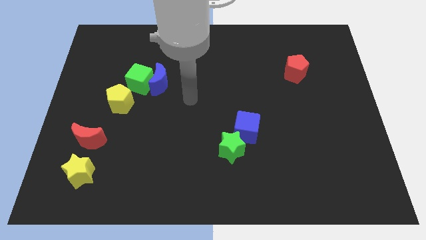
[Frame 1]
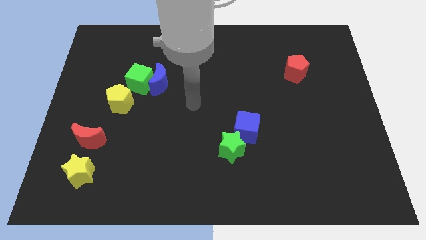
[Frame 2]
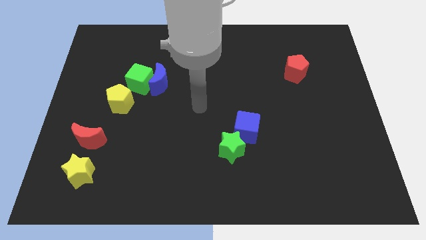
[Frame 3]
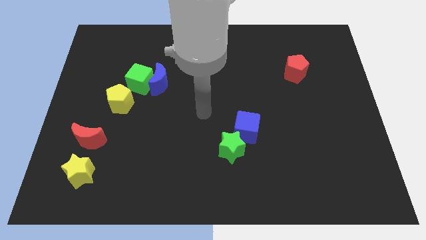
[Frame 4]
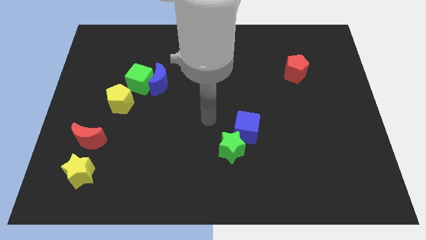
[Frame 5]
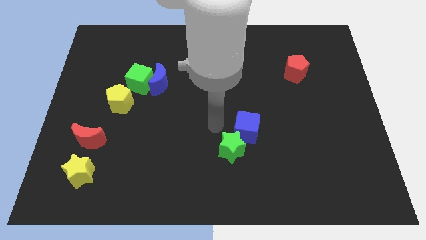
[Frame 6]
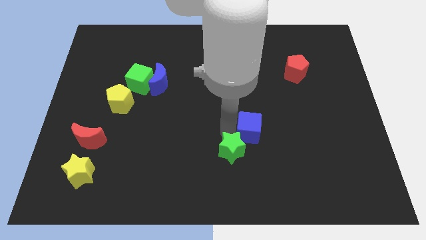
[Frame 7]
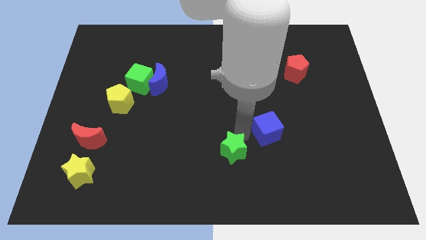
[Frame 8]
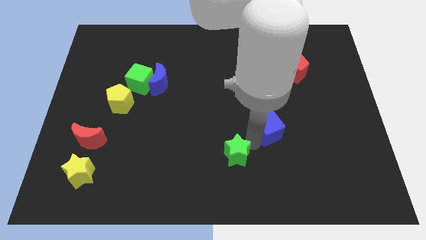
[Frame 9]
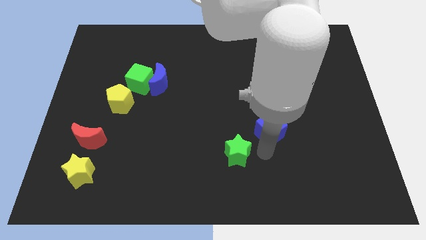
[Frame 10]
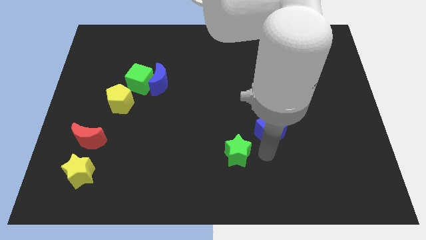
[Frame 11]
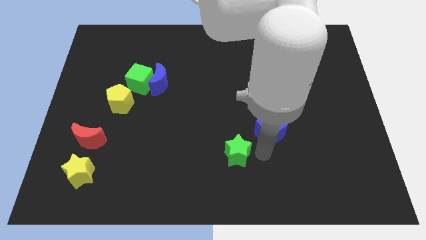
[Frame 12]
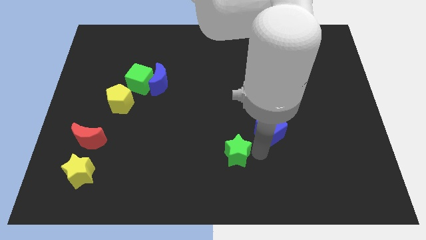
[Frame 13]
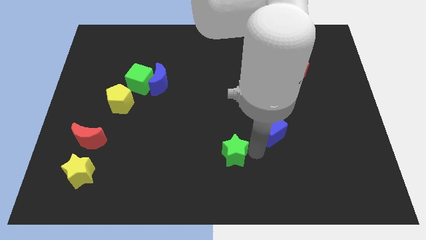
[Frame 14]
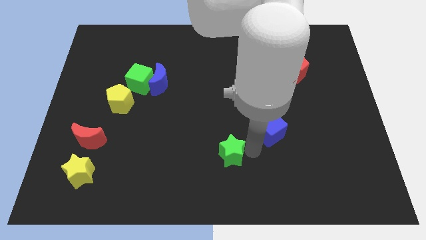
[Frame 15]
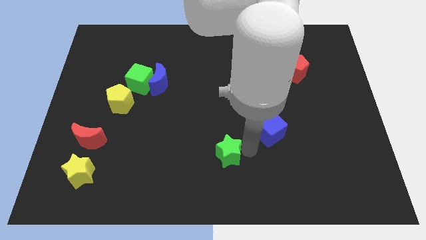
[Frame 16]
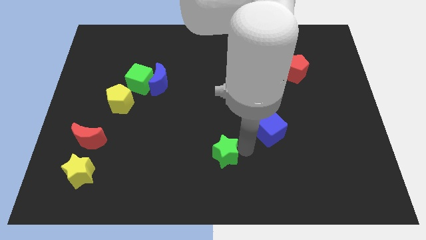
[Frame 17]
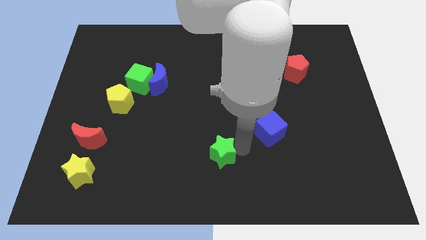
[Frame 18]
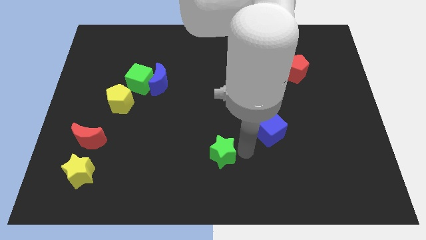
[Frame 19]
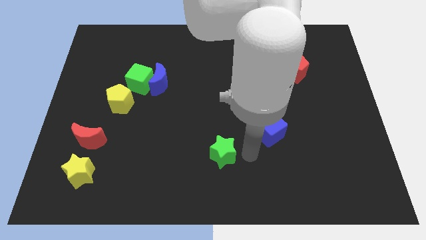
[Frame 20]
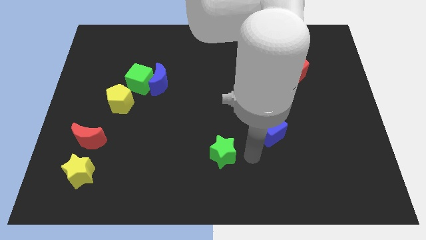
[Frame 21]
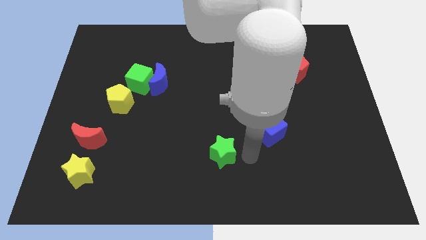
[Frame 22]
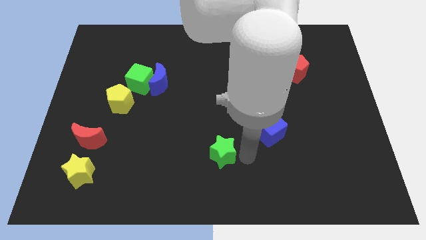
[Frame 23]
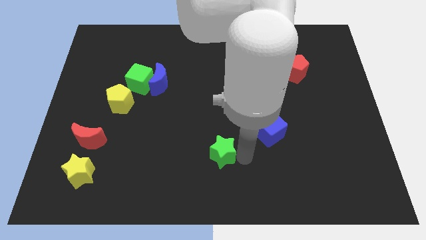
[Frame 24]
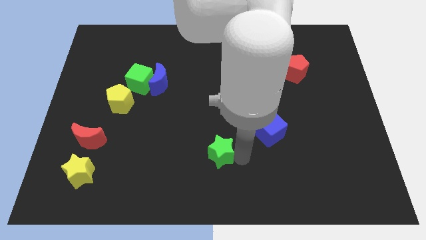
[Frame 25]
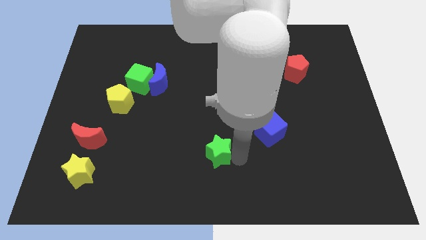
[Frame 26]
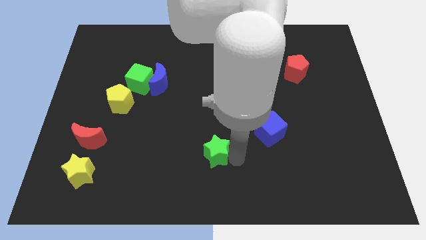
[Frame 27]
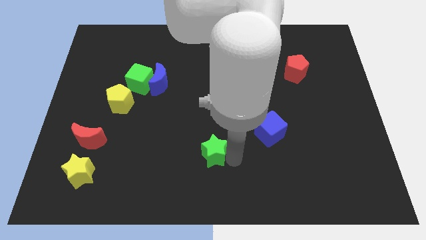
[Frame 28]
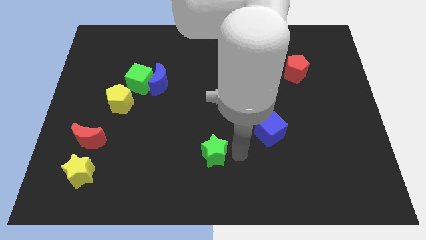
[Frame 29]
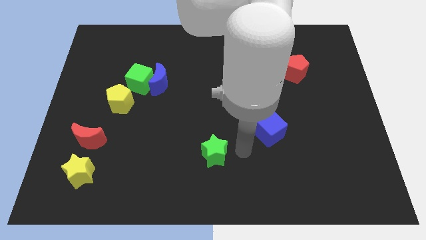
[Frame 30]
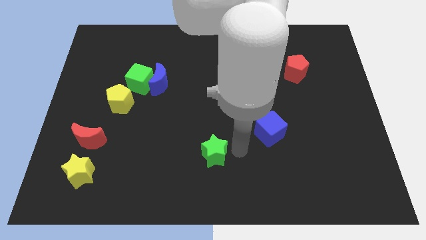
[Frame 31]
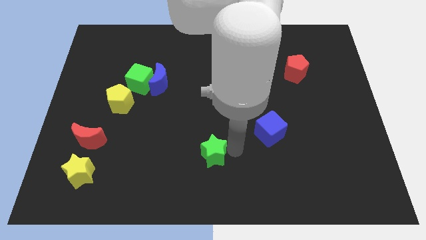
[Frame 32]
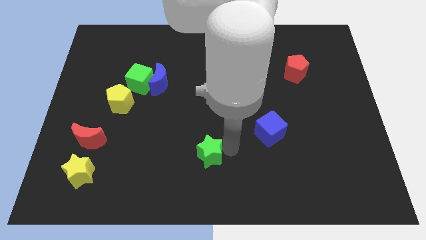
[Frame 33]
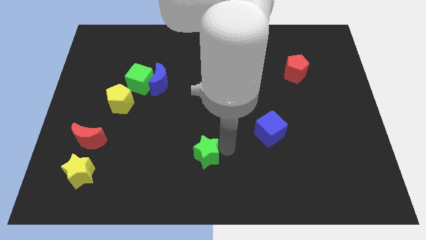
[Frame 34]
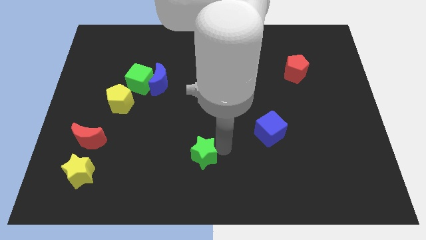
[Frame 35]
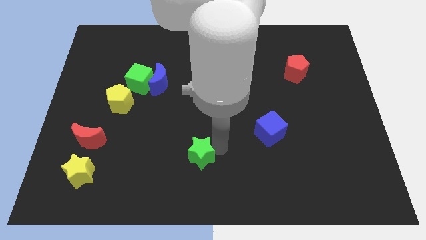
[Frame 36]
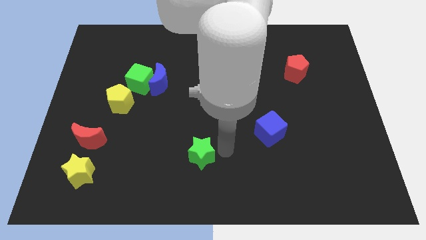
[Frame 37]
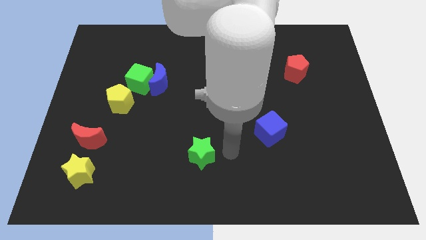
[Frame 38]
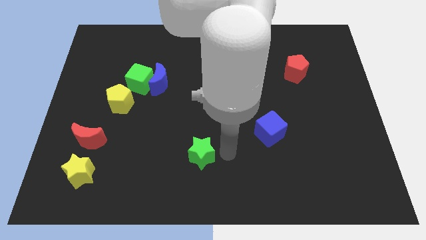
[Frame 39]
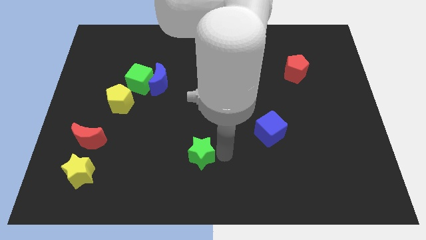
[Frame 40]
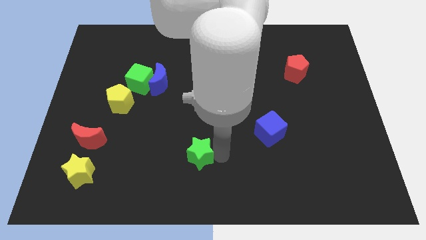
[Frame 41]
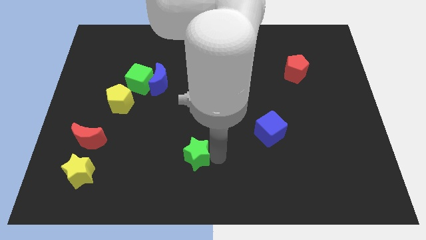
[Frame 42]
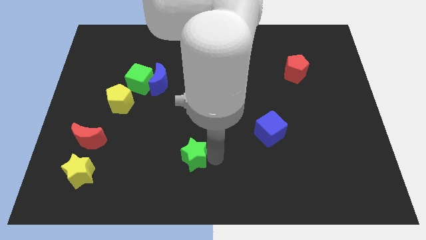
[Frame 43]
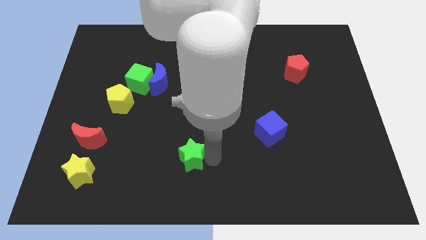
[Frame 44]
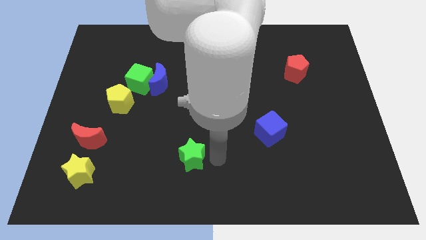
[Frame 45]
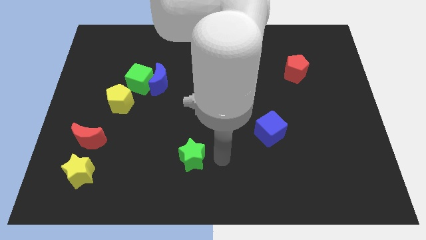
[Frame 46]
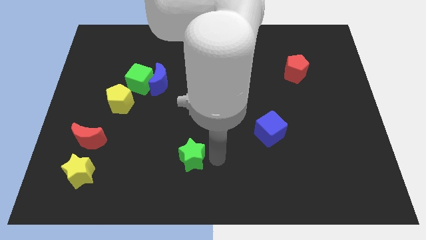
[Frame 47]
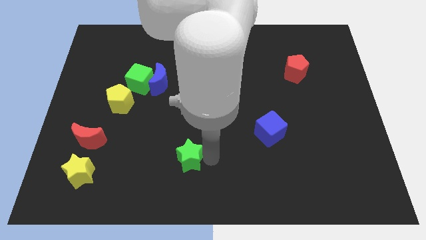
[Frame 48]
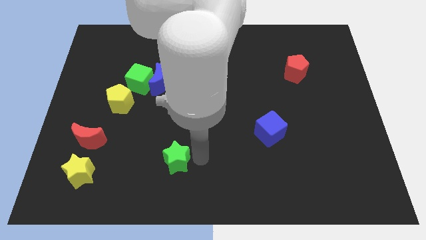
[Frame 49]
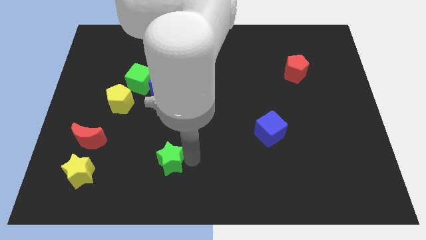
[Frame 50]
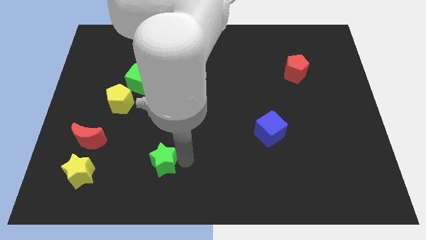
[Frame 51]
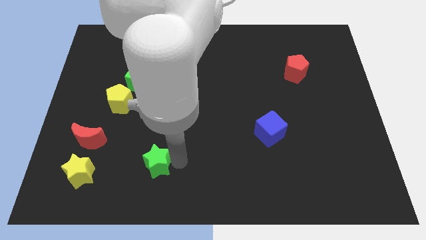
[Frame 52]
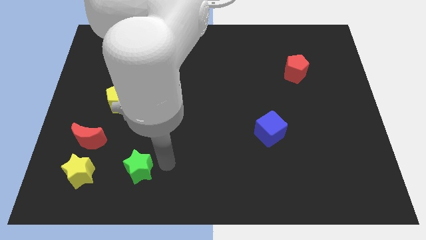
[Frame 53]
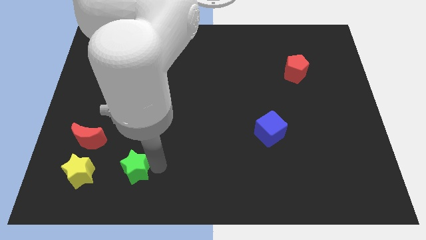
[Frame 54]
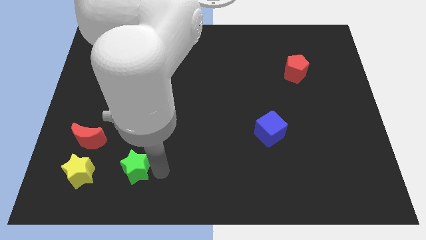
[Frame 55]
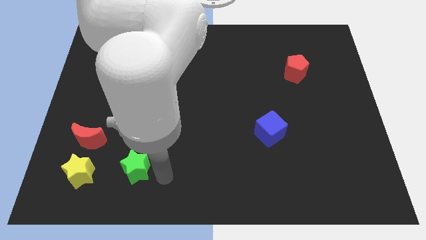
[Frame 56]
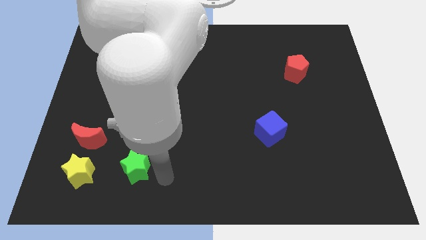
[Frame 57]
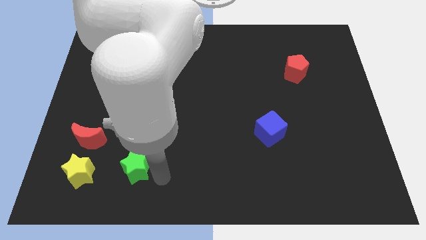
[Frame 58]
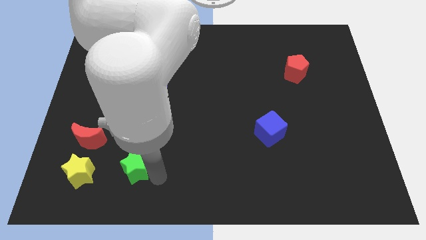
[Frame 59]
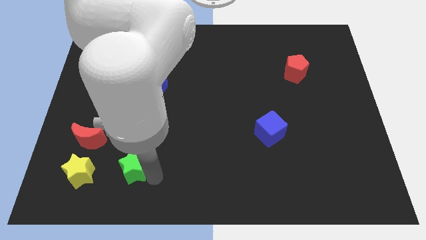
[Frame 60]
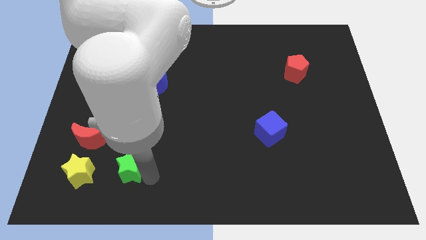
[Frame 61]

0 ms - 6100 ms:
put the green star to the bottom right side of the red moon

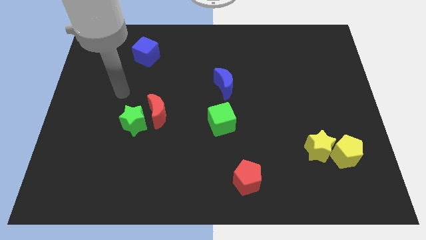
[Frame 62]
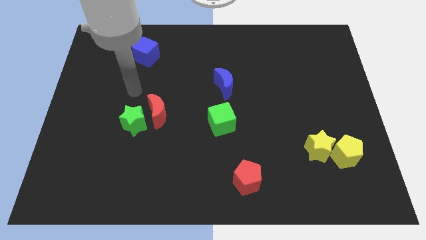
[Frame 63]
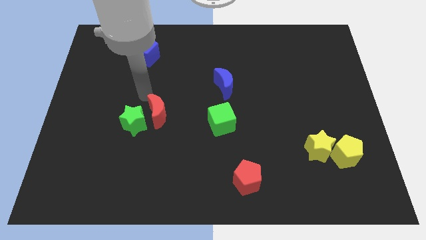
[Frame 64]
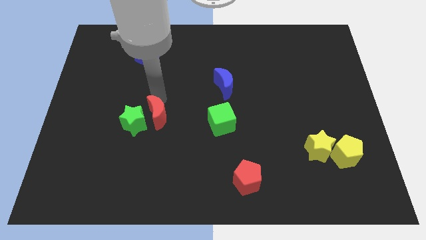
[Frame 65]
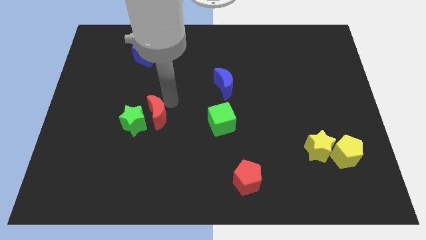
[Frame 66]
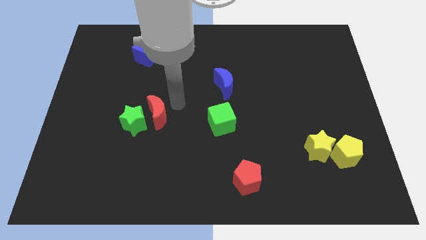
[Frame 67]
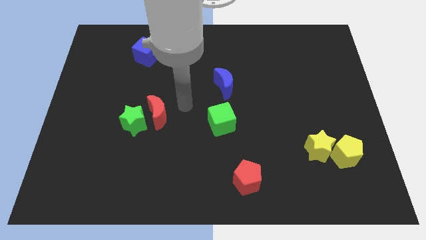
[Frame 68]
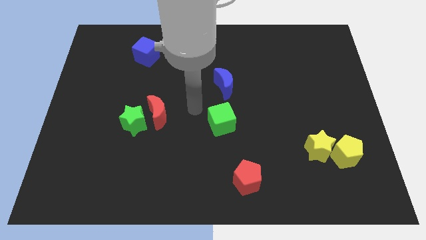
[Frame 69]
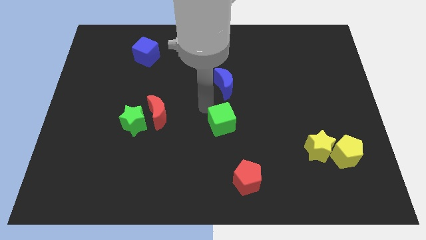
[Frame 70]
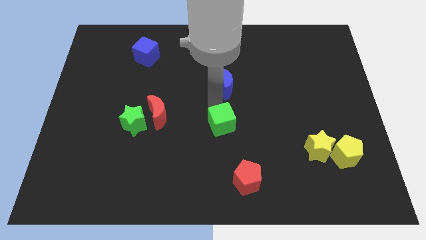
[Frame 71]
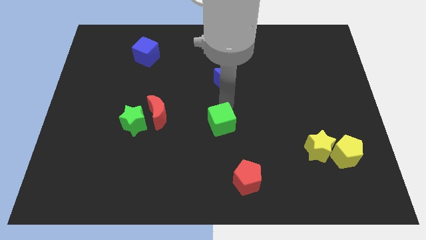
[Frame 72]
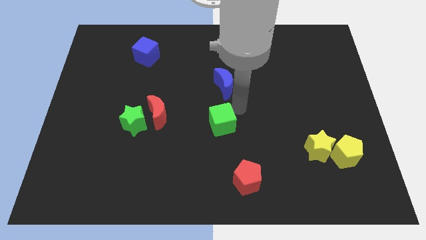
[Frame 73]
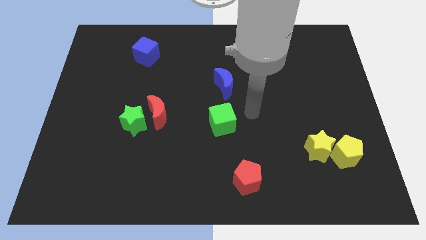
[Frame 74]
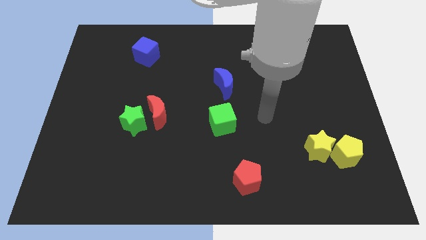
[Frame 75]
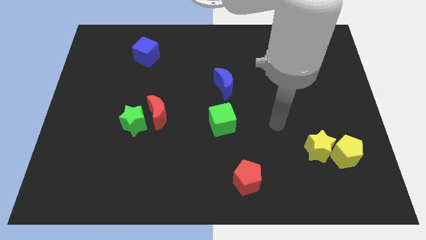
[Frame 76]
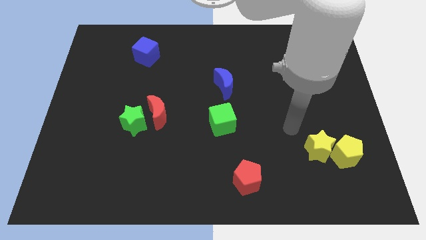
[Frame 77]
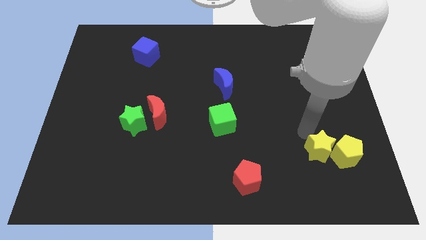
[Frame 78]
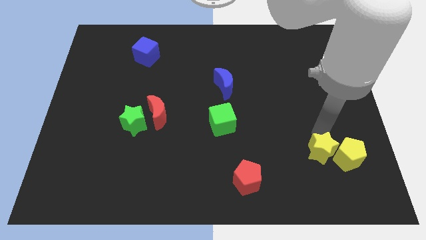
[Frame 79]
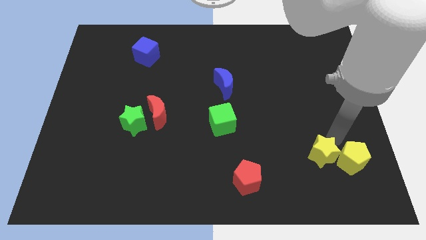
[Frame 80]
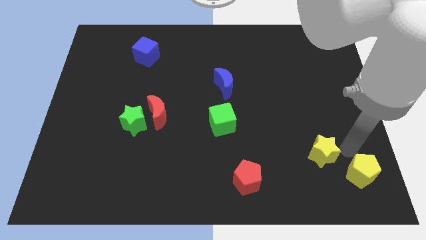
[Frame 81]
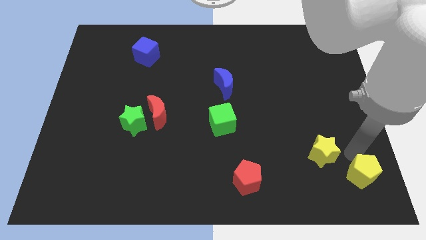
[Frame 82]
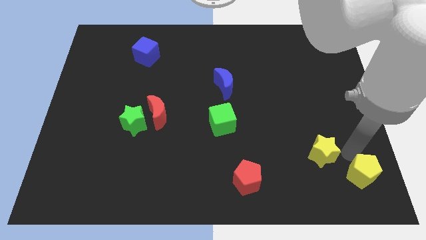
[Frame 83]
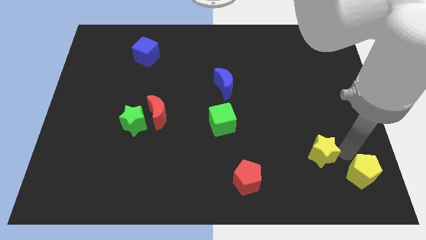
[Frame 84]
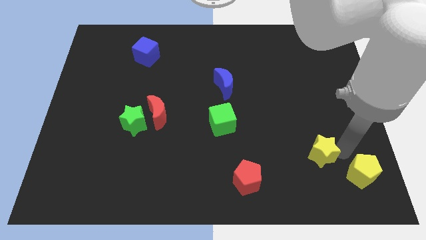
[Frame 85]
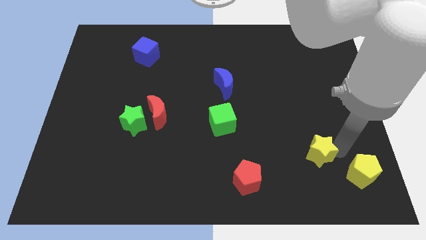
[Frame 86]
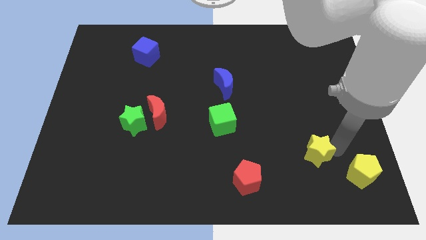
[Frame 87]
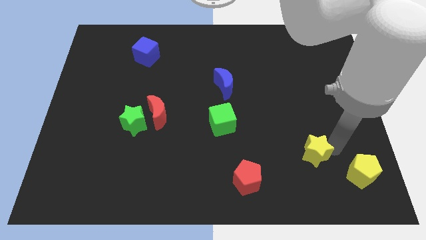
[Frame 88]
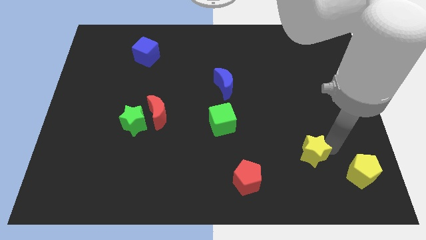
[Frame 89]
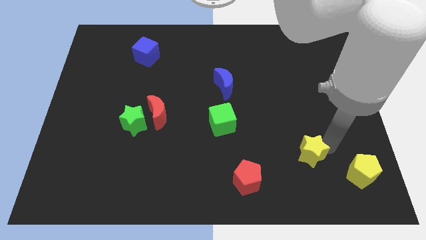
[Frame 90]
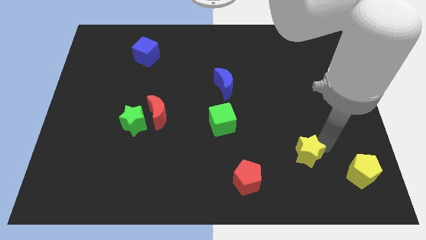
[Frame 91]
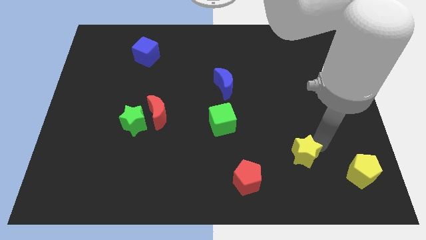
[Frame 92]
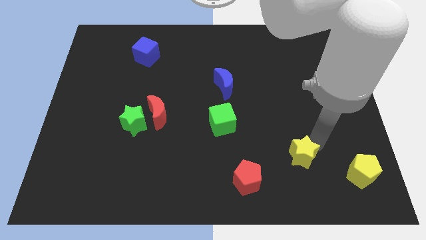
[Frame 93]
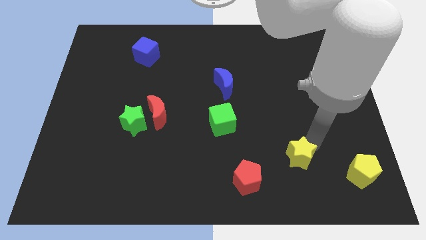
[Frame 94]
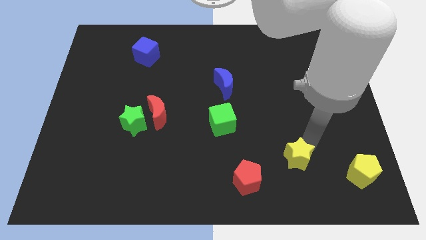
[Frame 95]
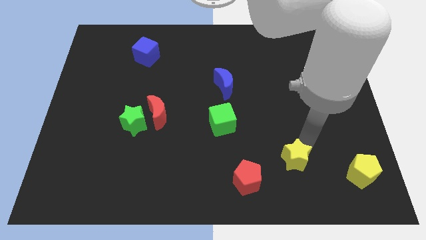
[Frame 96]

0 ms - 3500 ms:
put the yellow star diagonally up and to the right of the red pentagon
